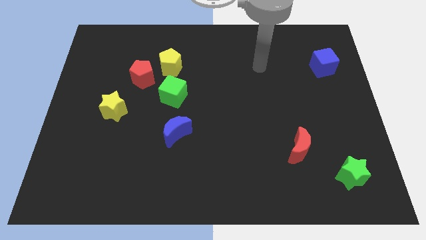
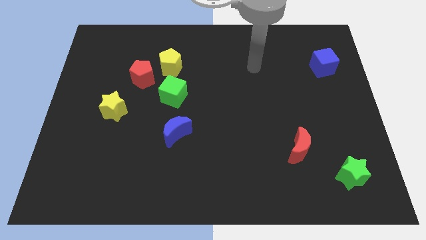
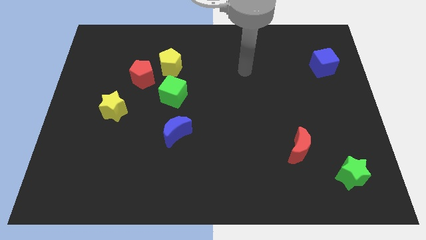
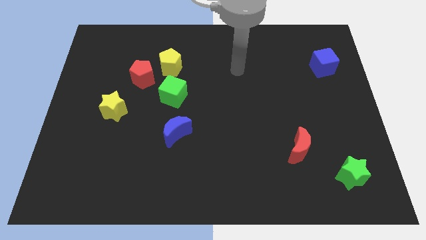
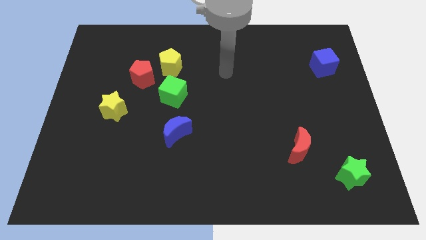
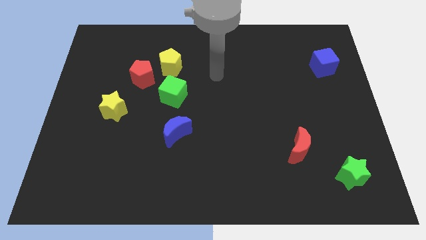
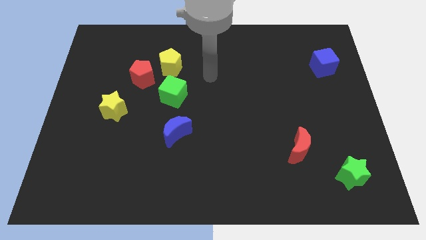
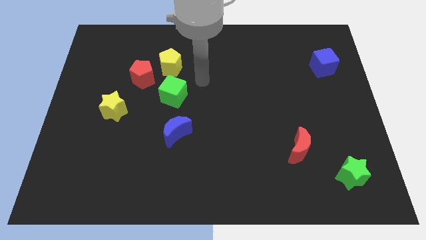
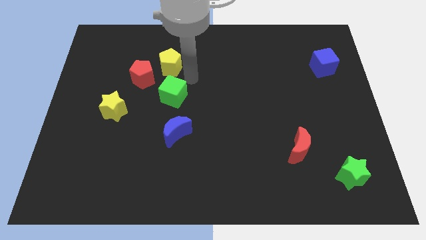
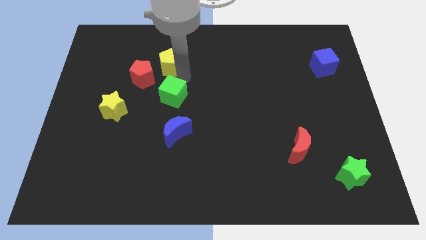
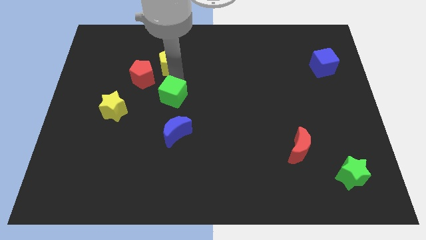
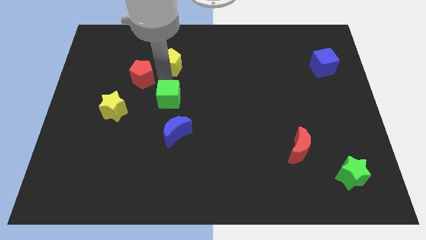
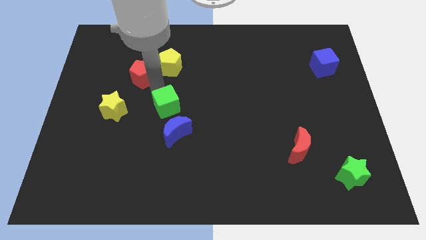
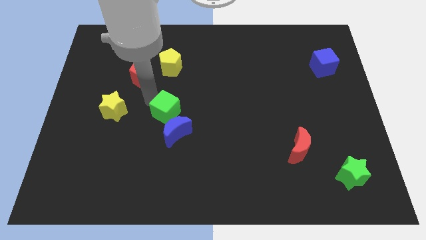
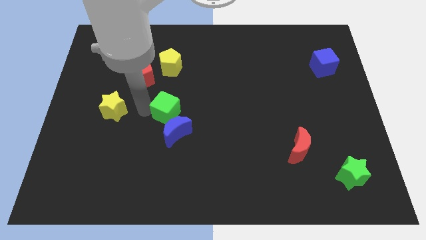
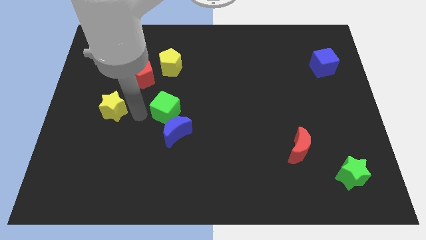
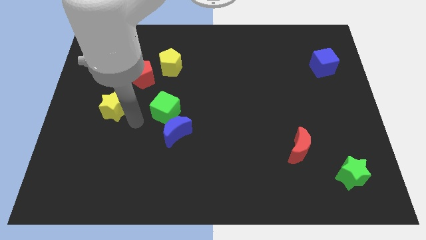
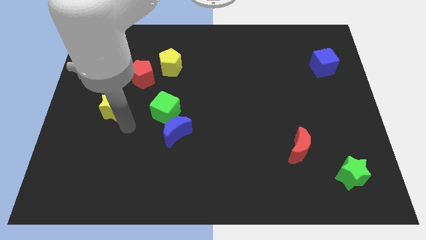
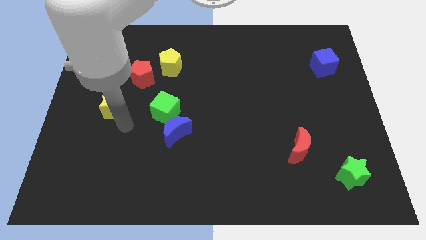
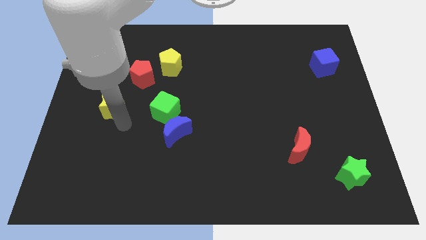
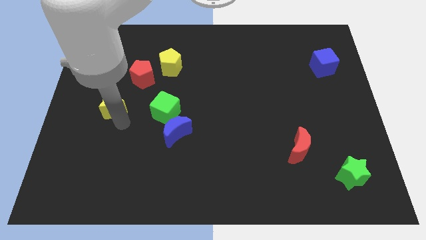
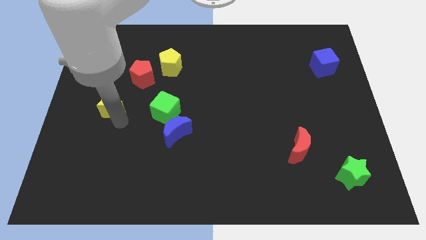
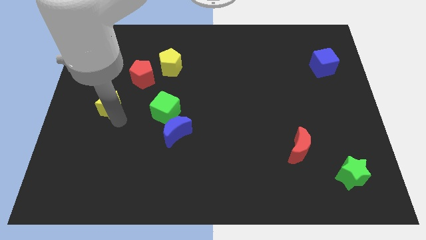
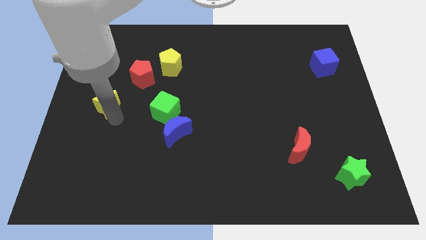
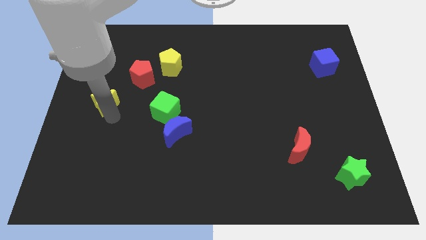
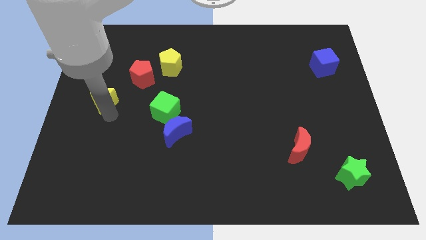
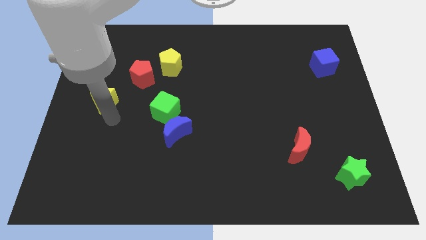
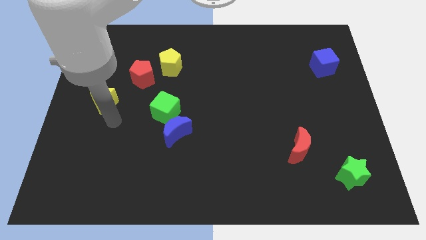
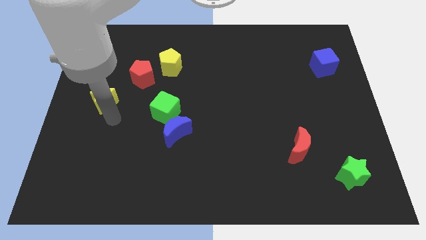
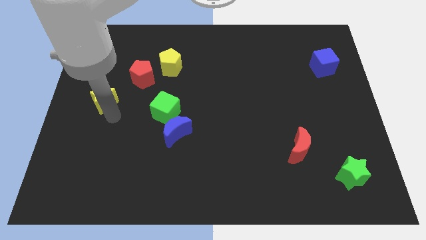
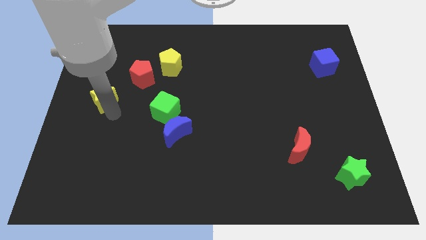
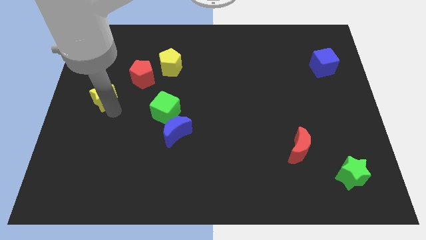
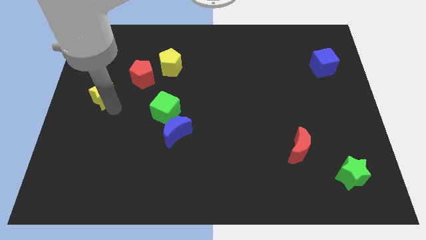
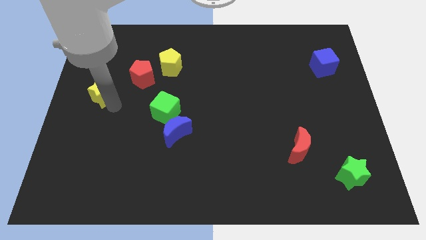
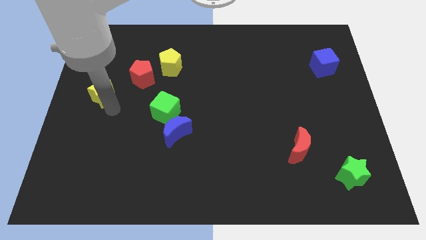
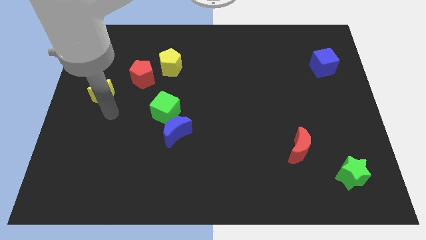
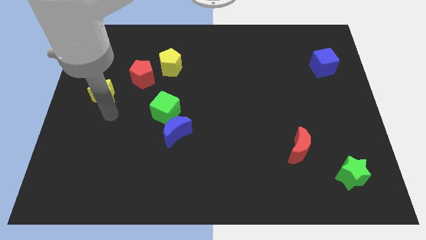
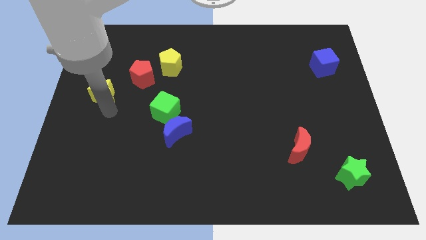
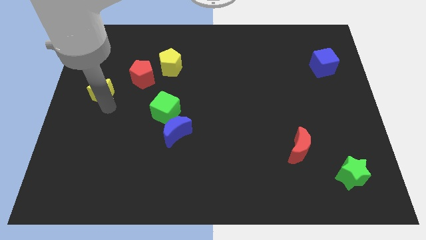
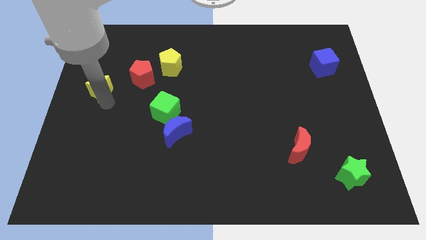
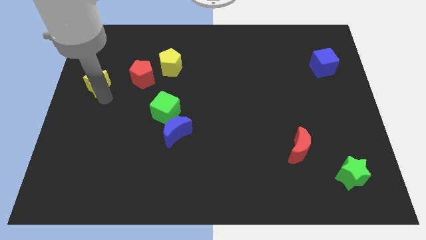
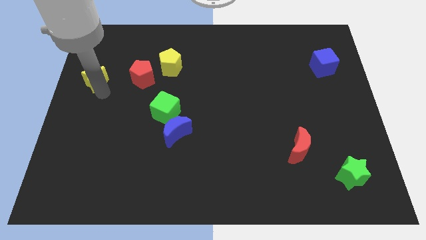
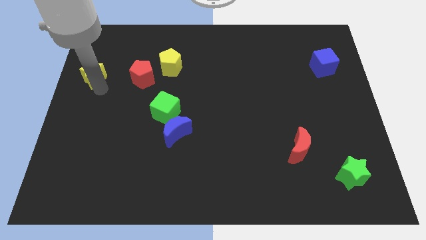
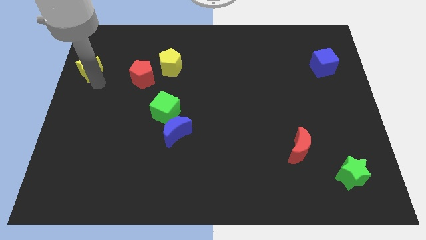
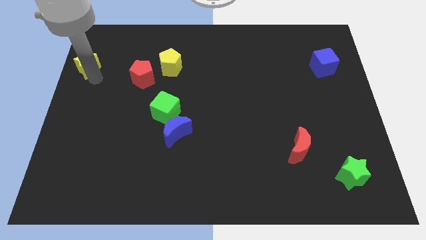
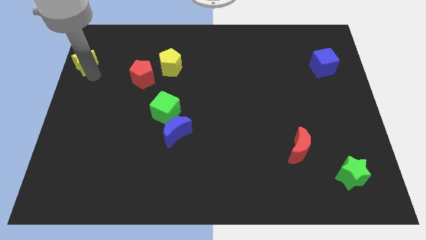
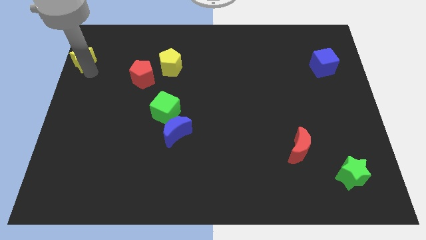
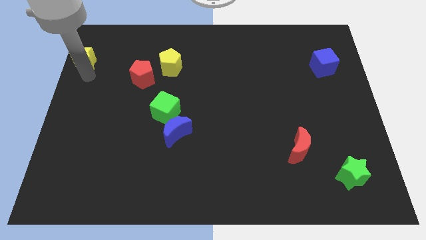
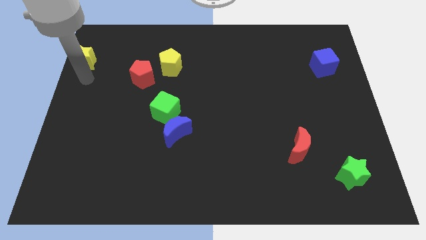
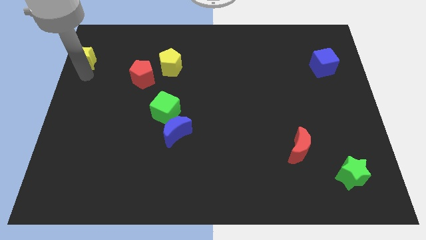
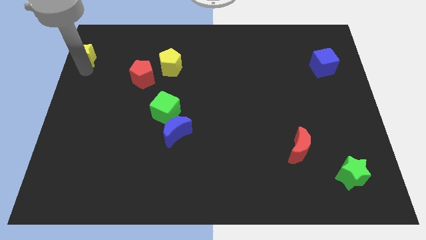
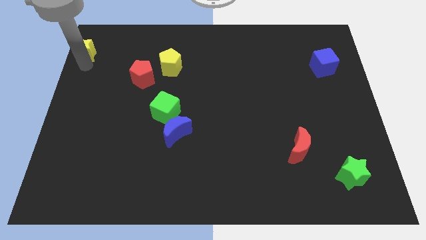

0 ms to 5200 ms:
move the yellow star to the top left corner

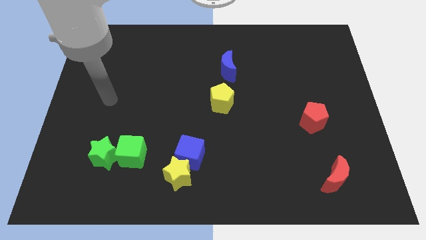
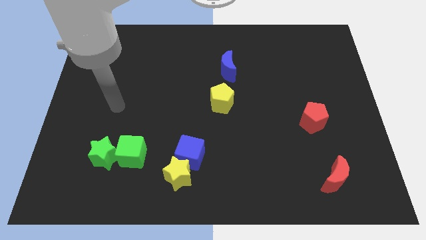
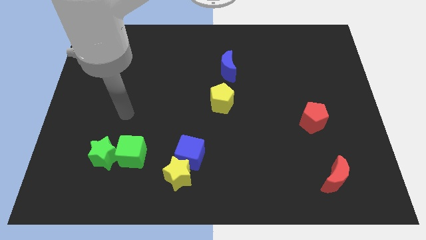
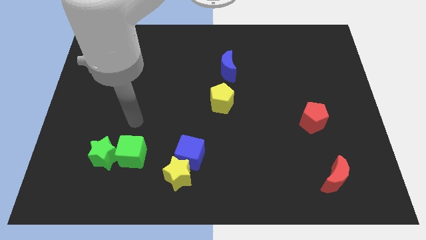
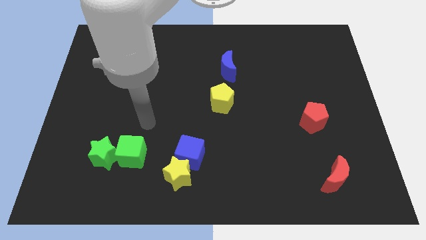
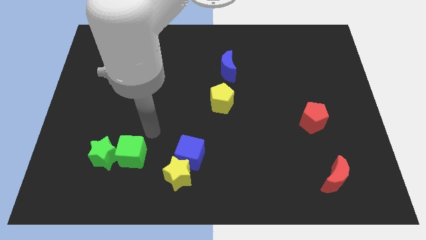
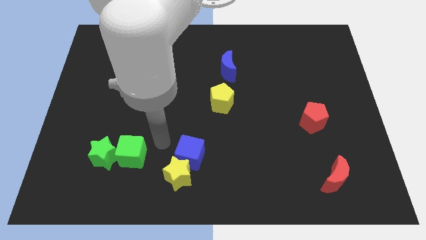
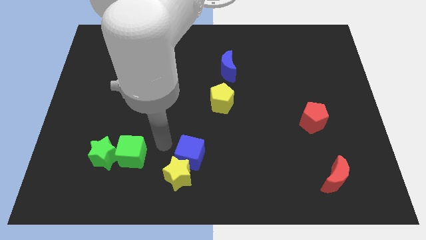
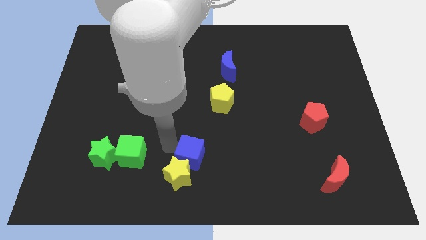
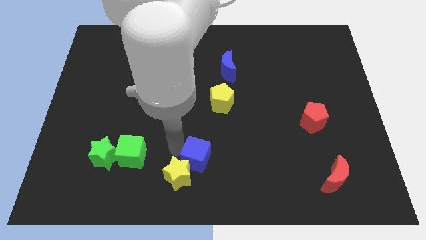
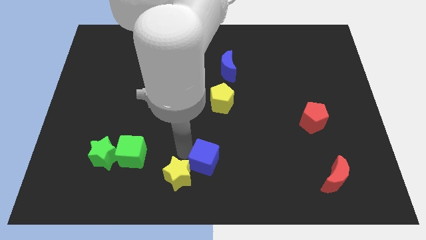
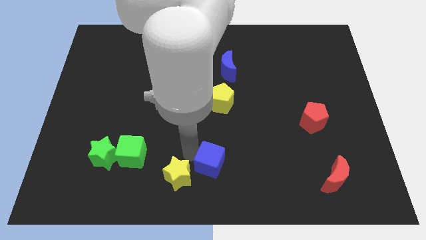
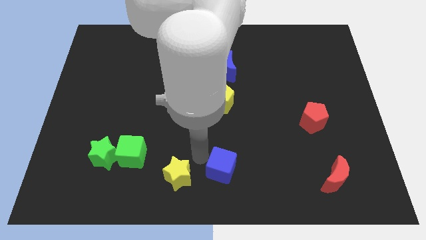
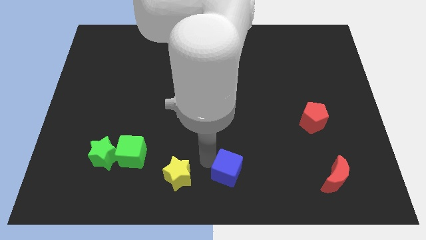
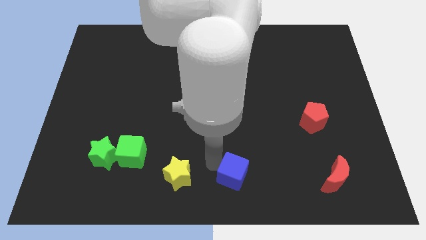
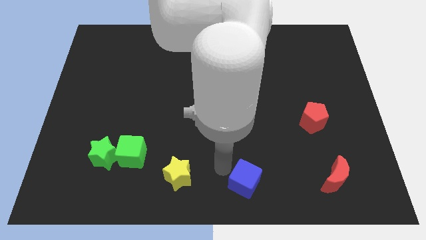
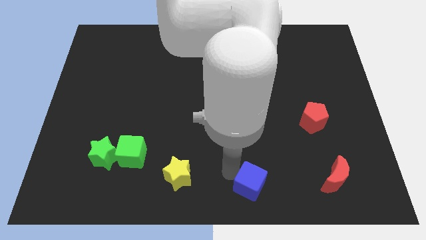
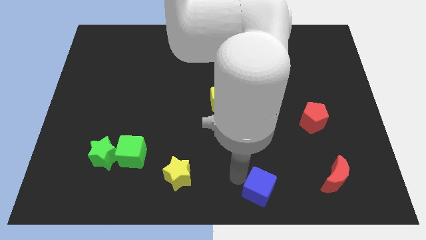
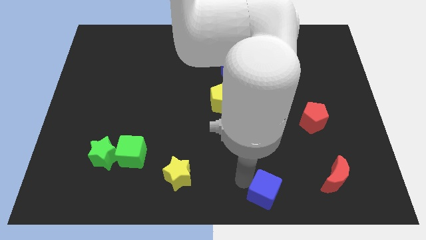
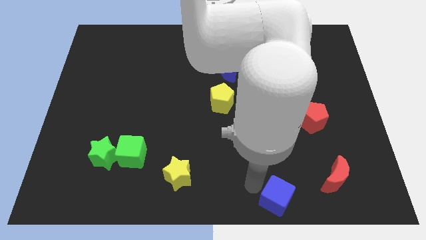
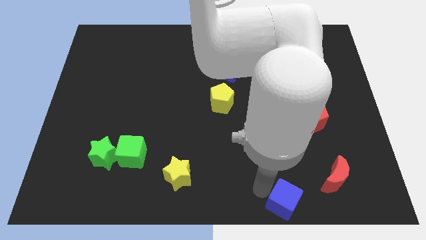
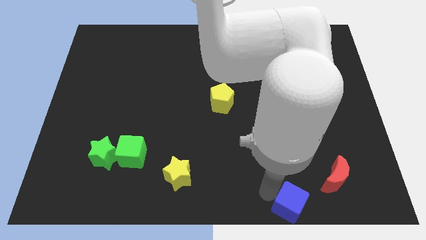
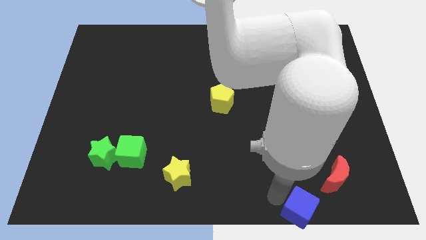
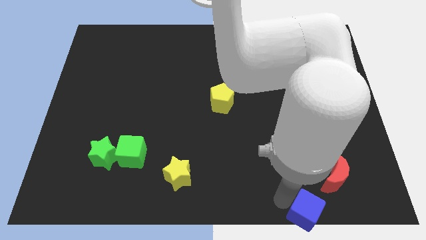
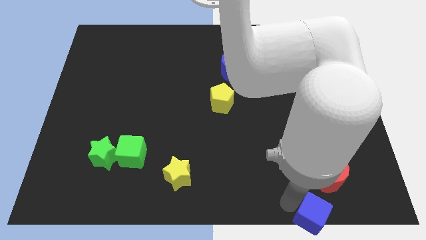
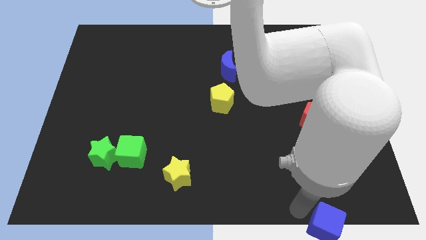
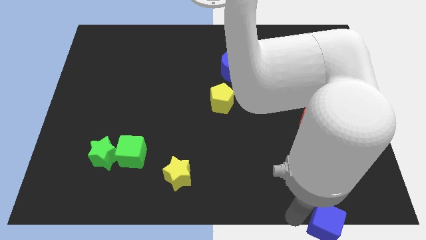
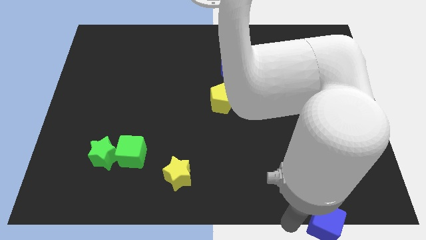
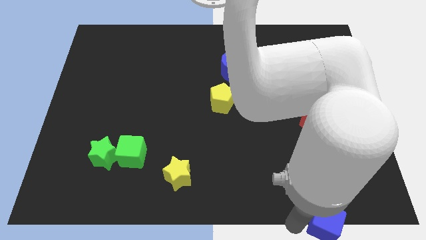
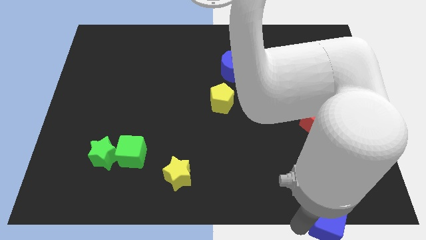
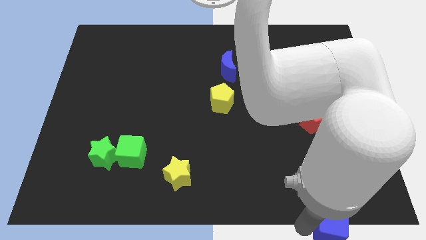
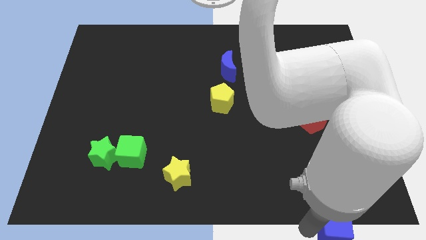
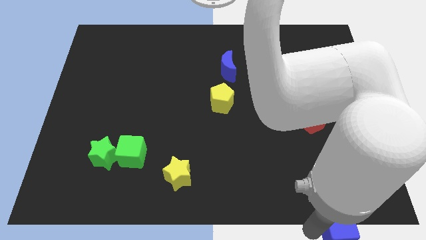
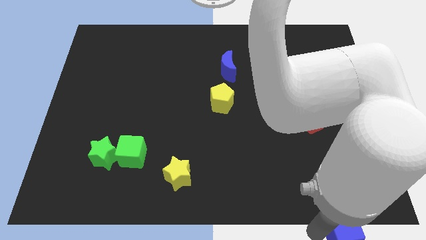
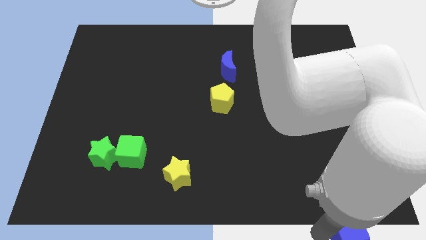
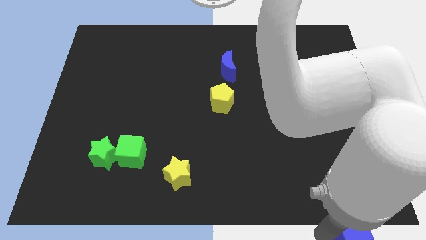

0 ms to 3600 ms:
slide the blue cube to the bottom right of the board
